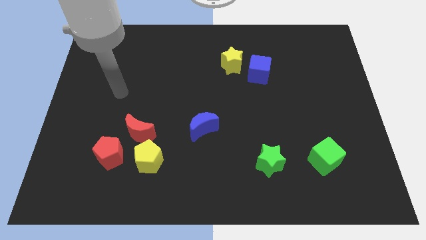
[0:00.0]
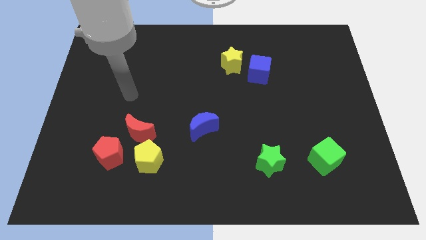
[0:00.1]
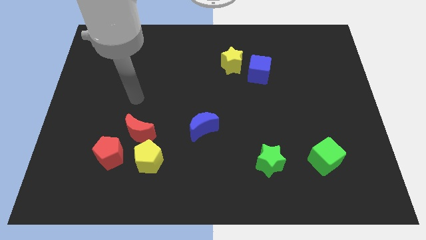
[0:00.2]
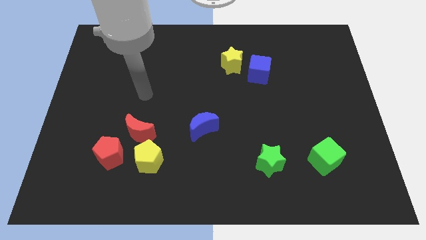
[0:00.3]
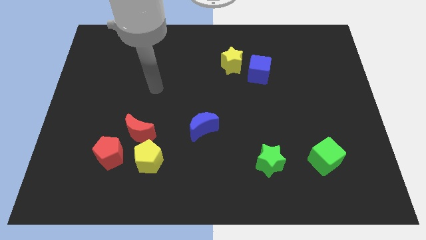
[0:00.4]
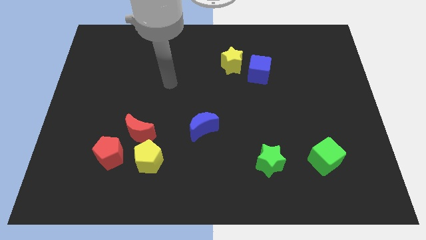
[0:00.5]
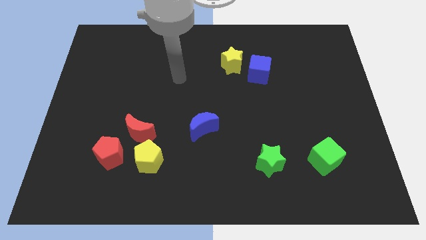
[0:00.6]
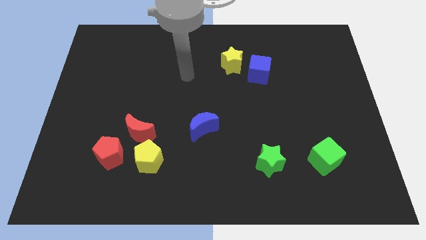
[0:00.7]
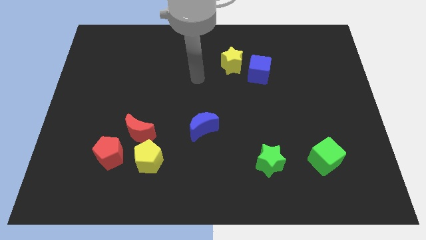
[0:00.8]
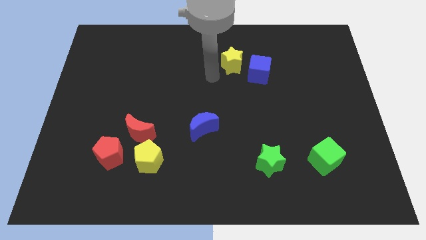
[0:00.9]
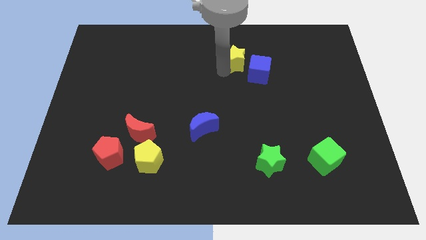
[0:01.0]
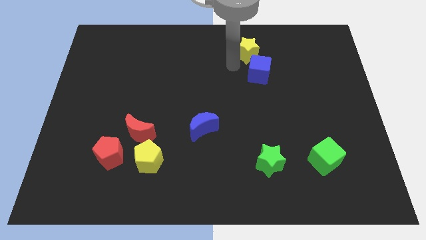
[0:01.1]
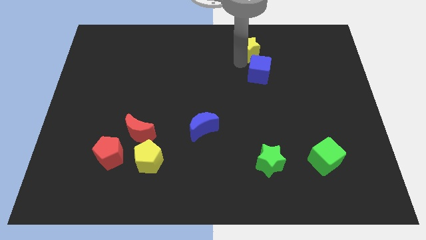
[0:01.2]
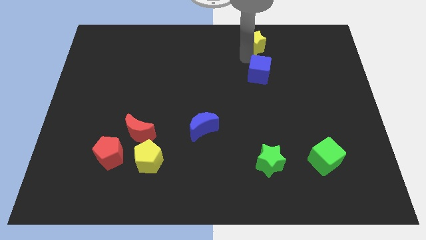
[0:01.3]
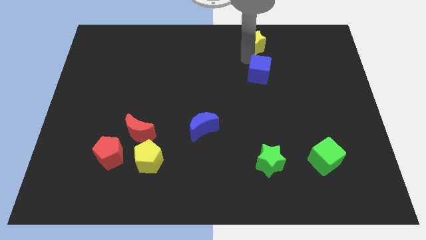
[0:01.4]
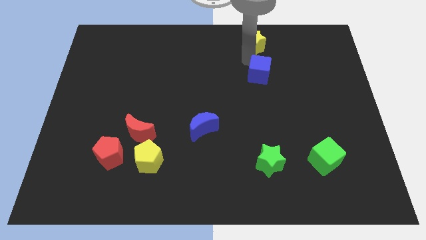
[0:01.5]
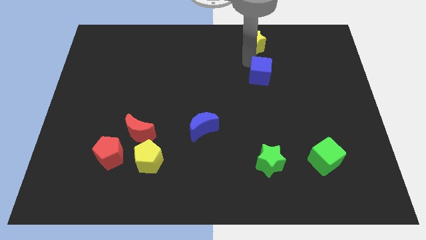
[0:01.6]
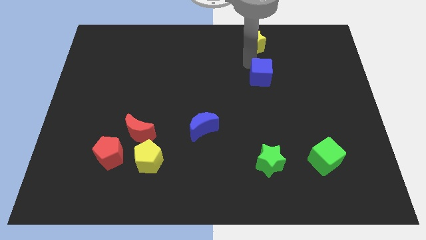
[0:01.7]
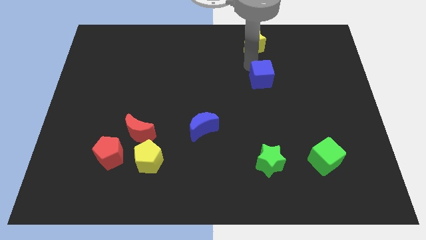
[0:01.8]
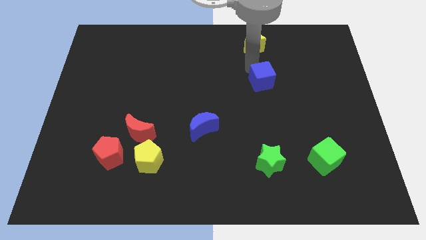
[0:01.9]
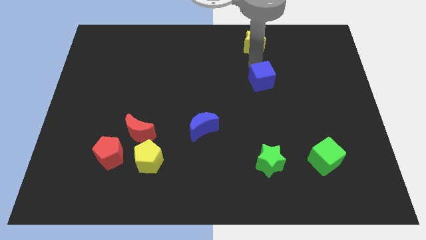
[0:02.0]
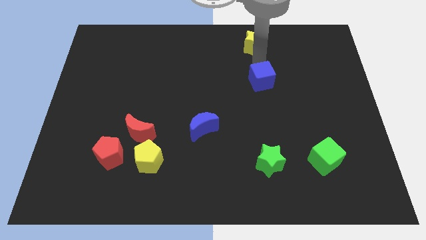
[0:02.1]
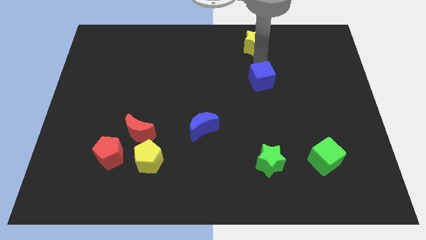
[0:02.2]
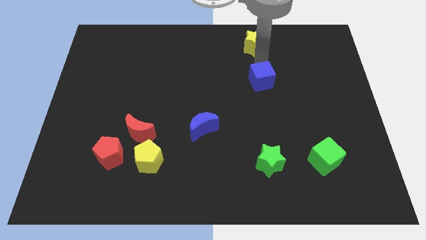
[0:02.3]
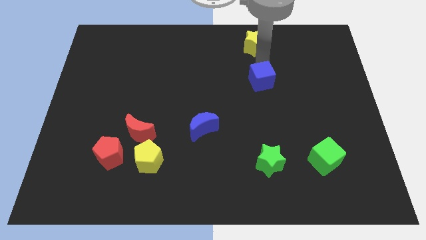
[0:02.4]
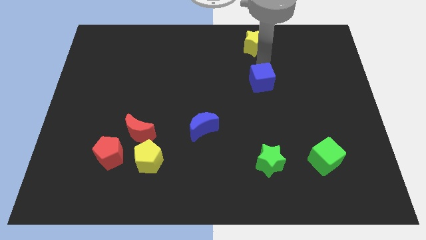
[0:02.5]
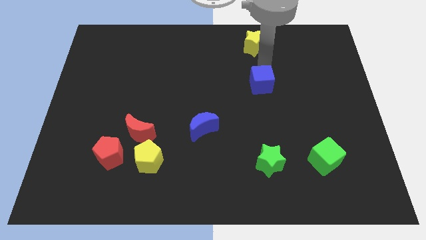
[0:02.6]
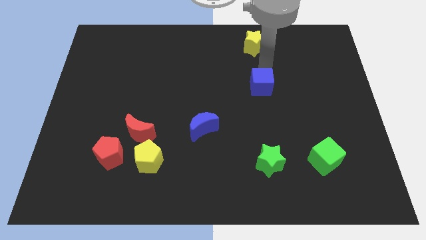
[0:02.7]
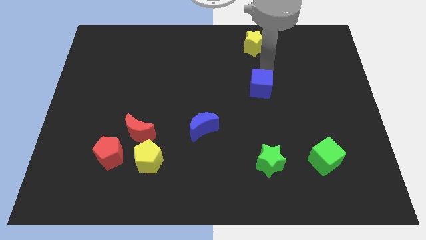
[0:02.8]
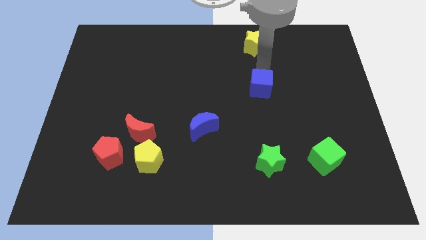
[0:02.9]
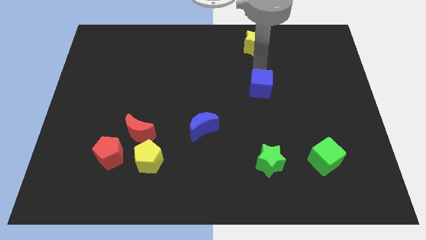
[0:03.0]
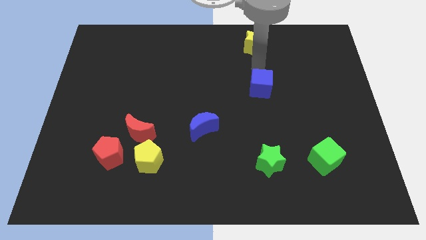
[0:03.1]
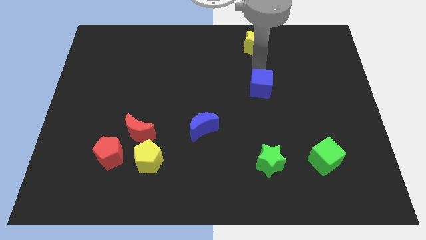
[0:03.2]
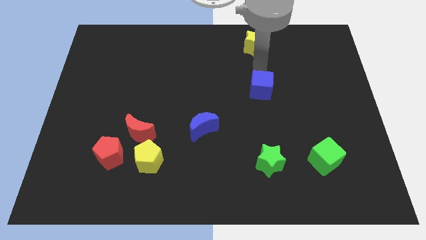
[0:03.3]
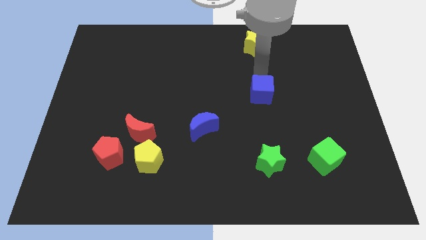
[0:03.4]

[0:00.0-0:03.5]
push the blue cube a little bit downwards

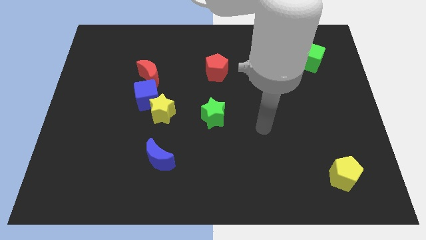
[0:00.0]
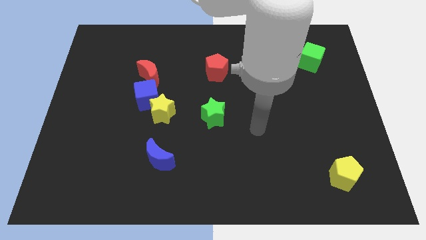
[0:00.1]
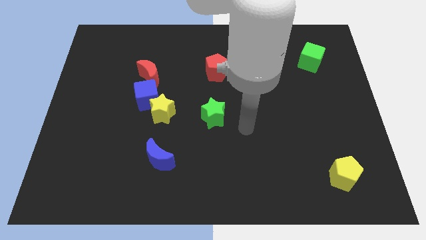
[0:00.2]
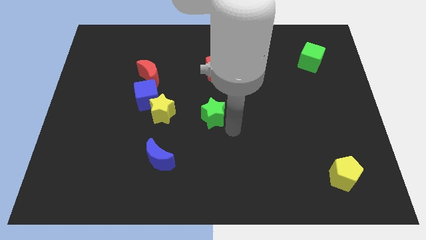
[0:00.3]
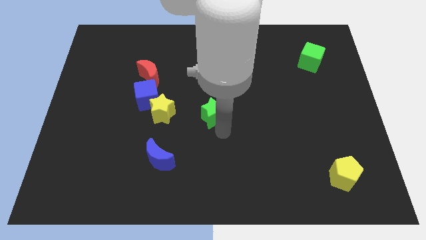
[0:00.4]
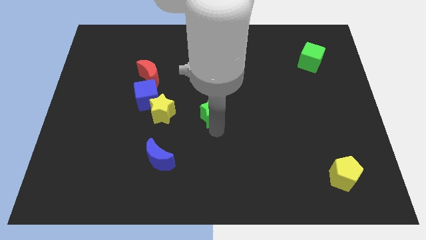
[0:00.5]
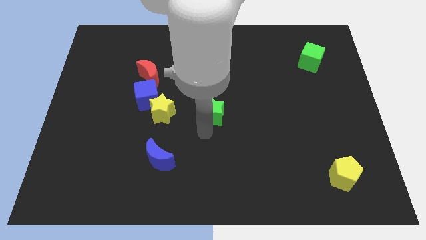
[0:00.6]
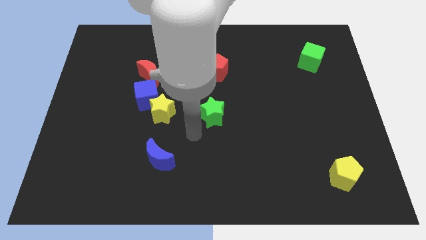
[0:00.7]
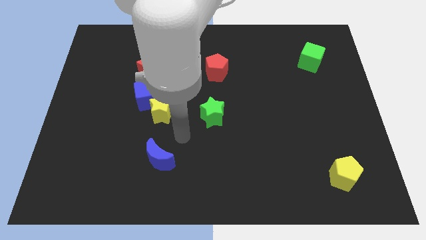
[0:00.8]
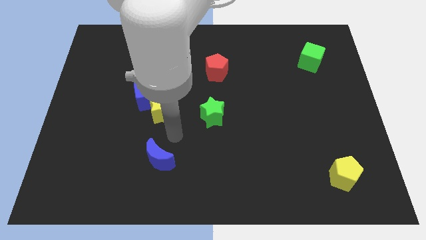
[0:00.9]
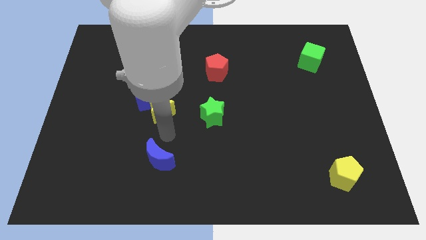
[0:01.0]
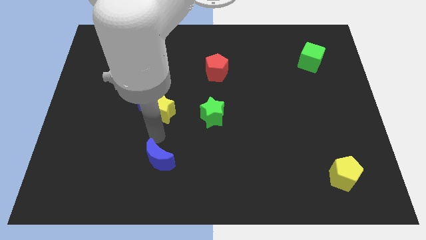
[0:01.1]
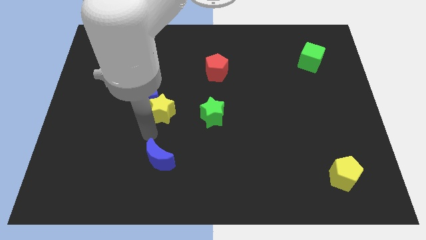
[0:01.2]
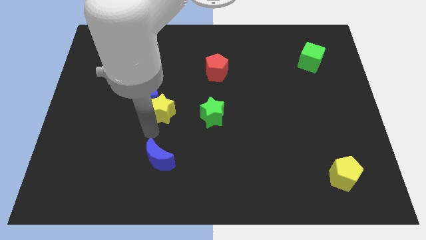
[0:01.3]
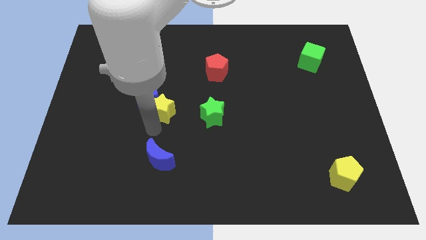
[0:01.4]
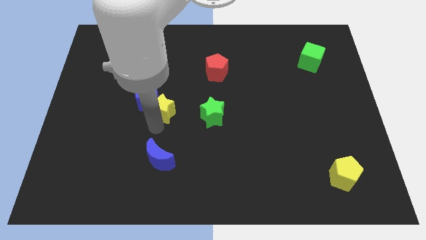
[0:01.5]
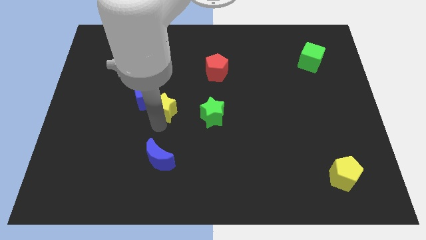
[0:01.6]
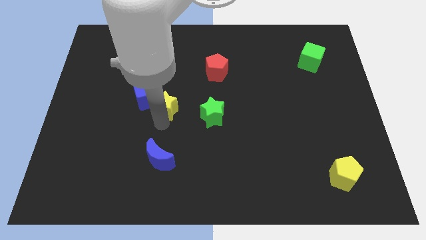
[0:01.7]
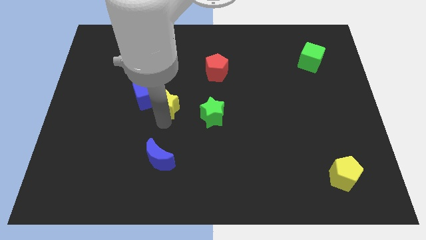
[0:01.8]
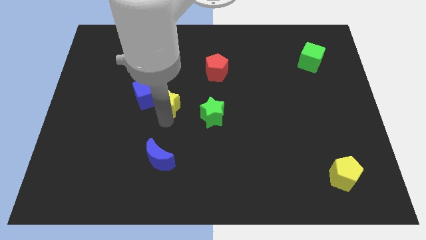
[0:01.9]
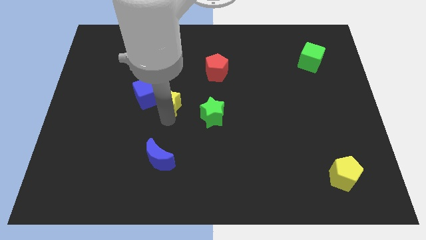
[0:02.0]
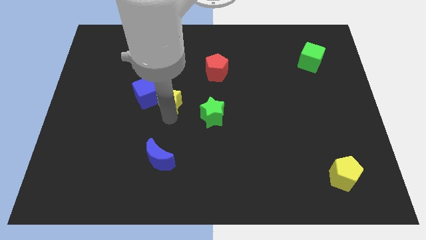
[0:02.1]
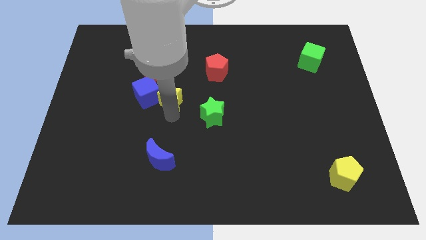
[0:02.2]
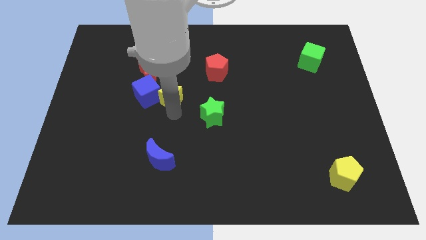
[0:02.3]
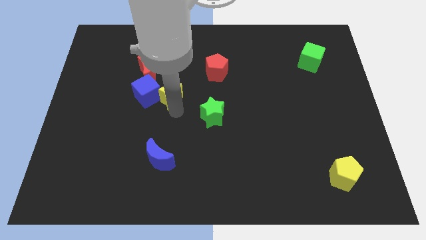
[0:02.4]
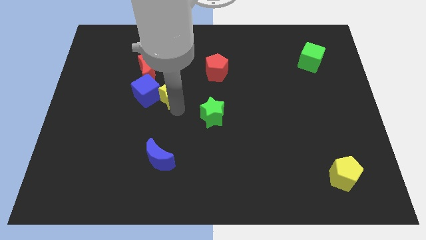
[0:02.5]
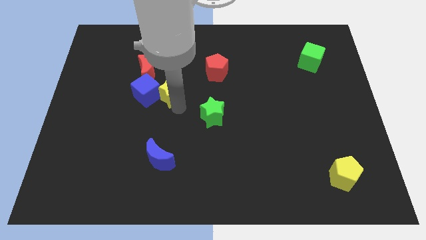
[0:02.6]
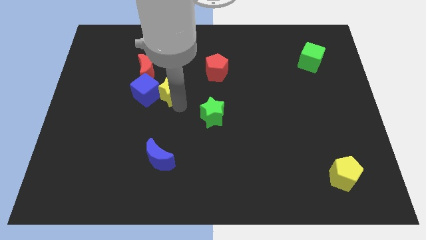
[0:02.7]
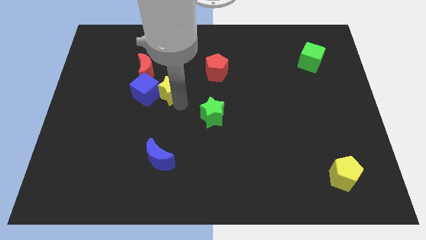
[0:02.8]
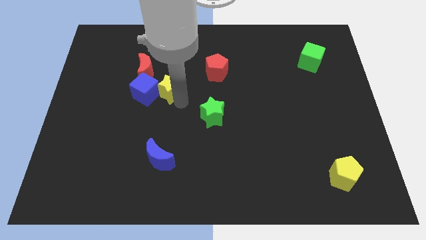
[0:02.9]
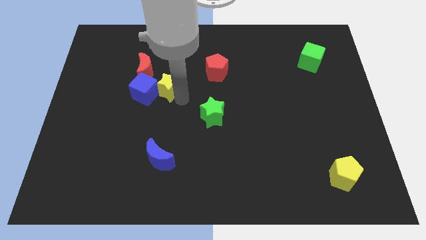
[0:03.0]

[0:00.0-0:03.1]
slightly move the yellow star up

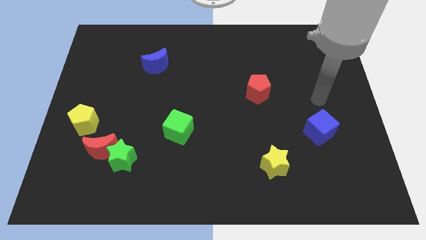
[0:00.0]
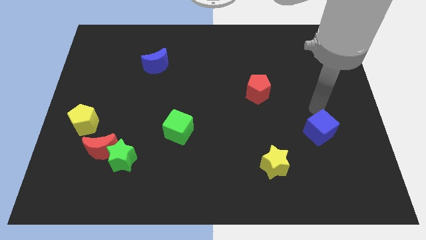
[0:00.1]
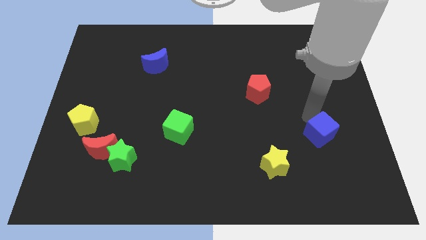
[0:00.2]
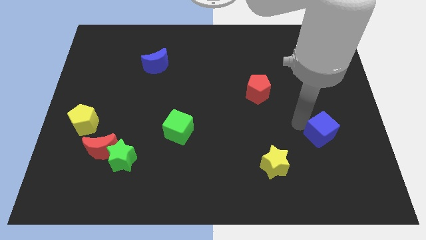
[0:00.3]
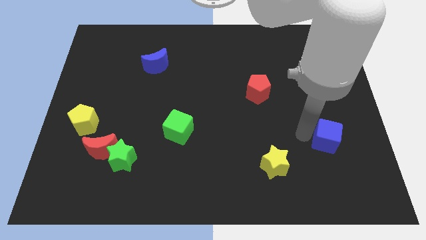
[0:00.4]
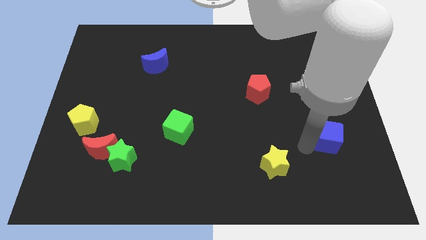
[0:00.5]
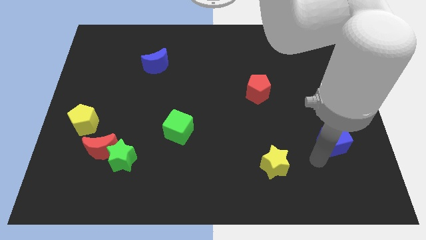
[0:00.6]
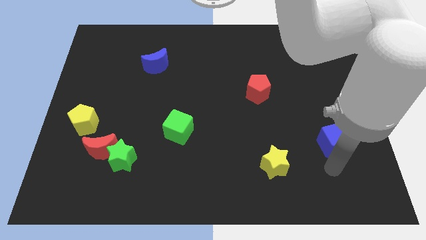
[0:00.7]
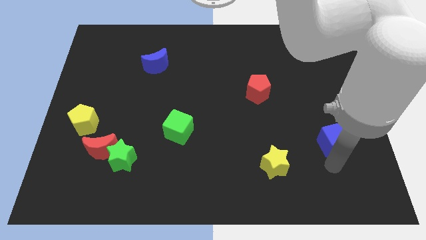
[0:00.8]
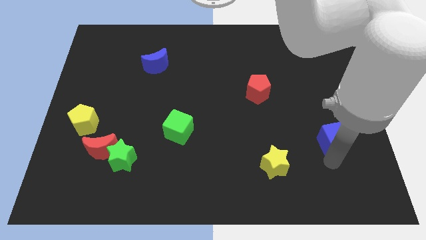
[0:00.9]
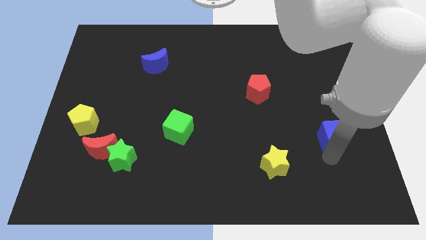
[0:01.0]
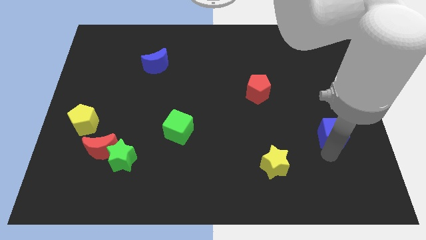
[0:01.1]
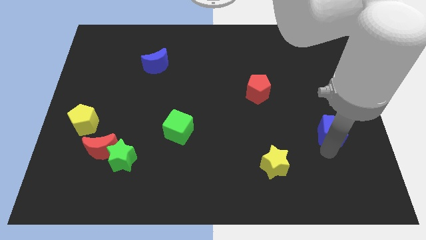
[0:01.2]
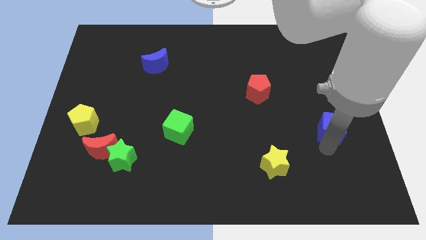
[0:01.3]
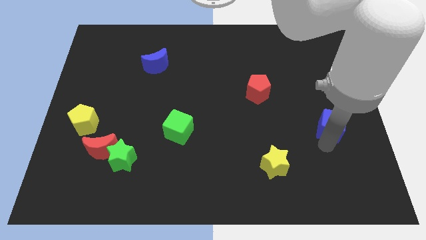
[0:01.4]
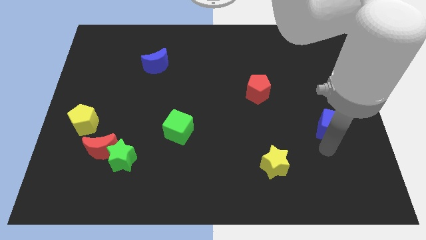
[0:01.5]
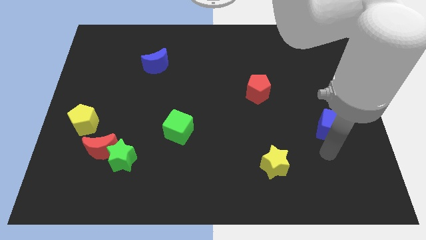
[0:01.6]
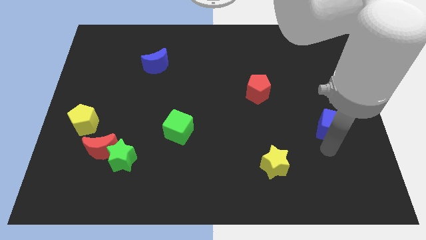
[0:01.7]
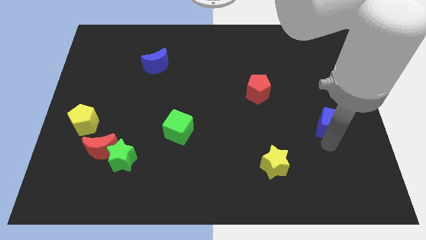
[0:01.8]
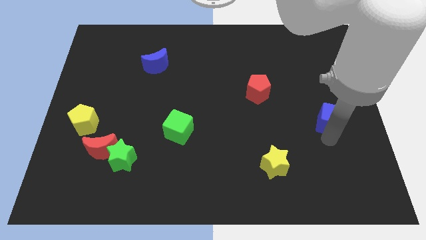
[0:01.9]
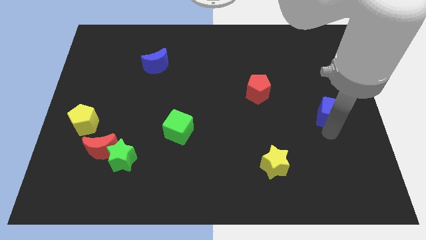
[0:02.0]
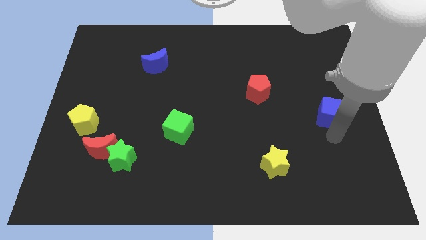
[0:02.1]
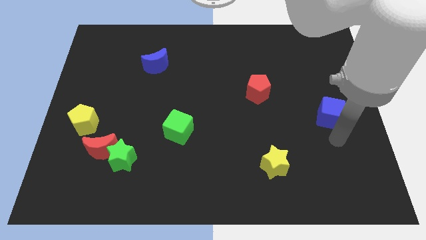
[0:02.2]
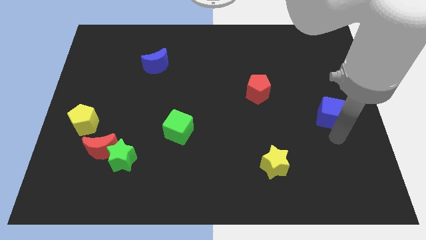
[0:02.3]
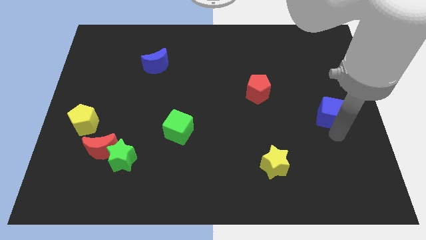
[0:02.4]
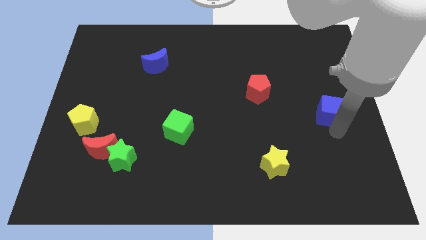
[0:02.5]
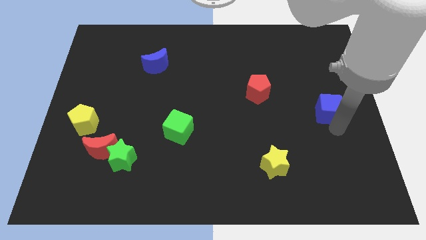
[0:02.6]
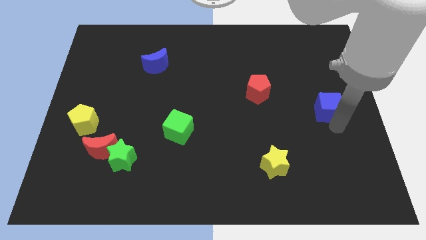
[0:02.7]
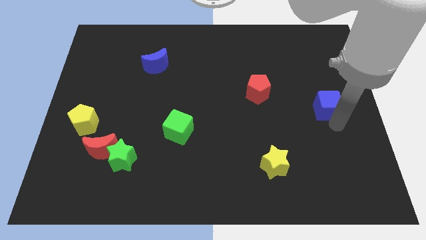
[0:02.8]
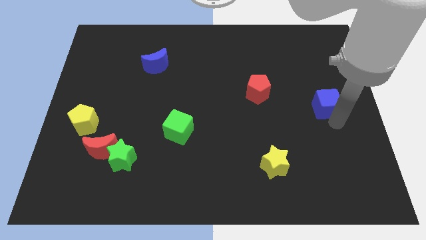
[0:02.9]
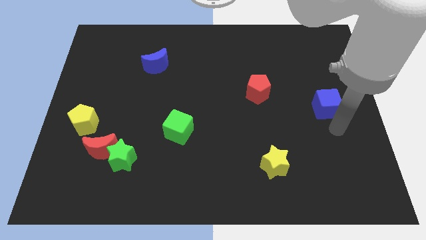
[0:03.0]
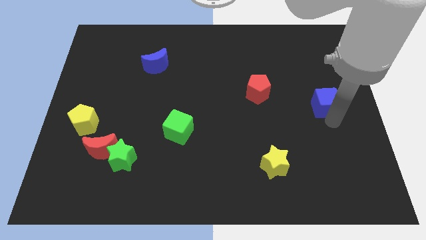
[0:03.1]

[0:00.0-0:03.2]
slide the blue cube upwards a little
